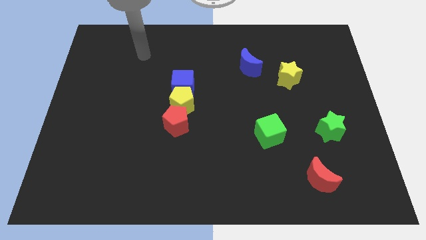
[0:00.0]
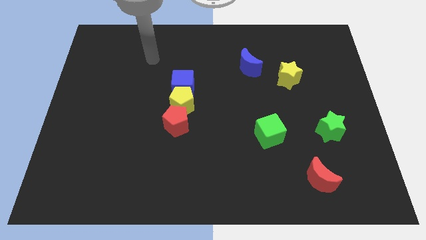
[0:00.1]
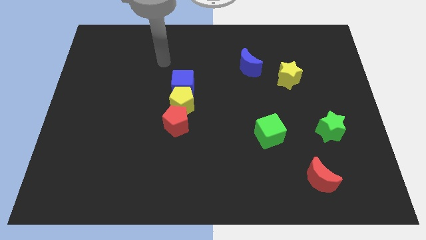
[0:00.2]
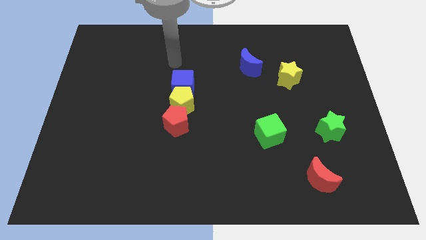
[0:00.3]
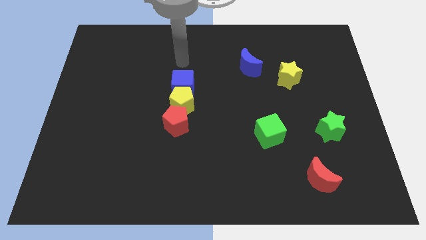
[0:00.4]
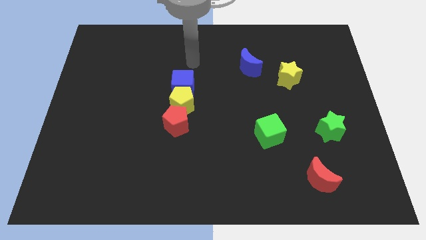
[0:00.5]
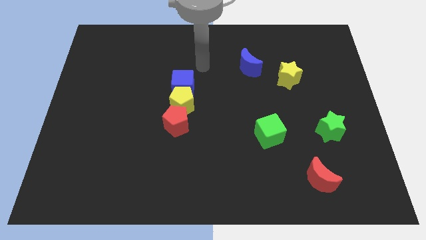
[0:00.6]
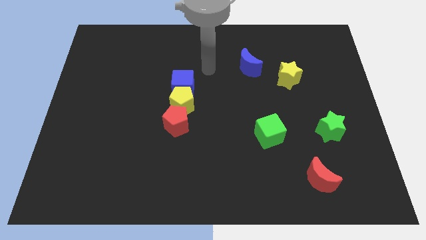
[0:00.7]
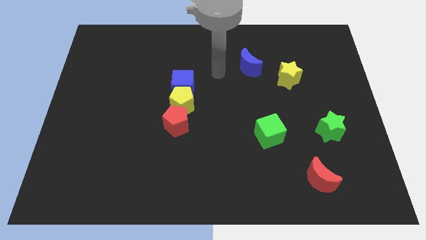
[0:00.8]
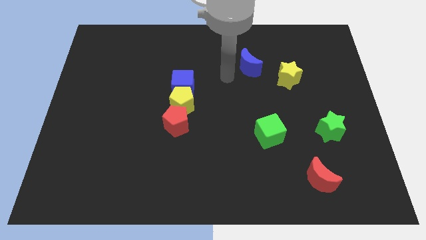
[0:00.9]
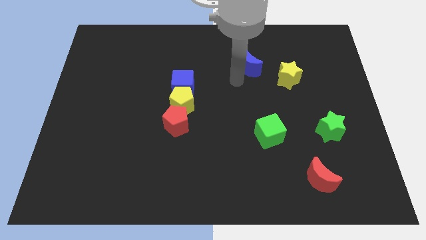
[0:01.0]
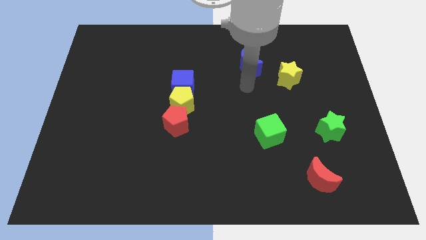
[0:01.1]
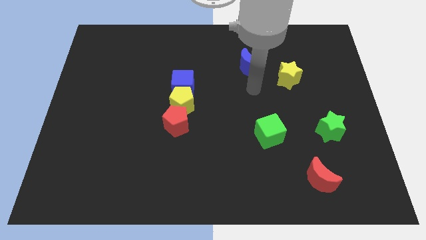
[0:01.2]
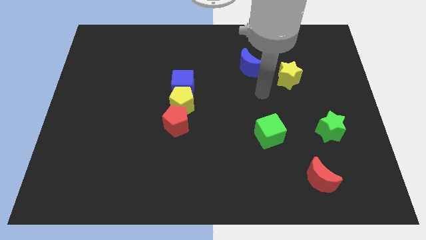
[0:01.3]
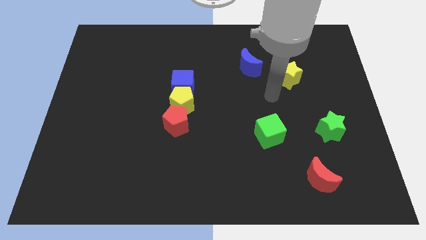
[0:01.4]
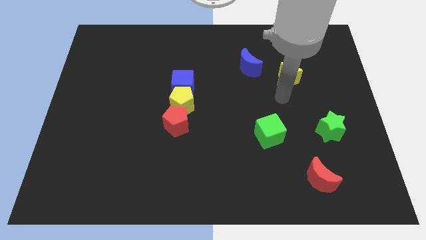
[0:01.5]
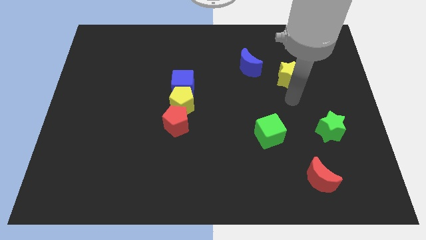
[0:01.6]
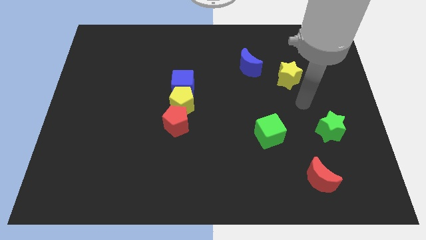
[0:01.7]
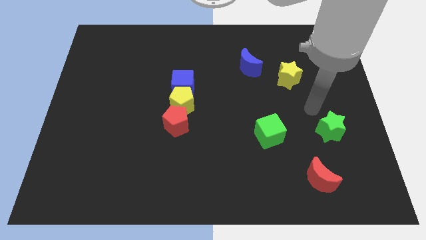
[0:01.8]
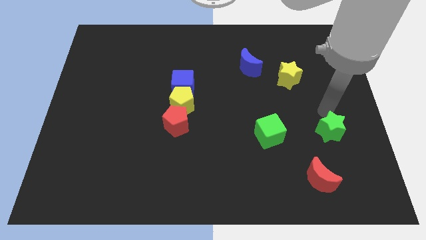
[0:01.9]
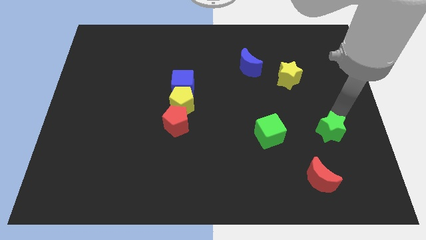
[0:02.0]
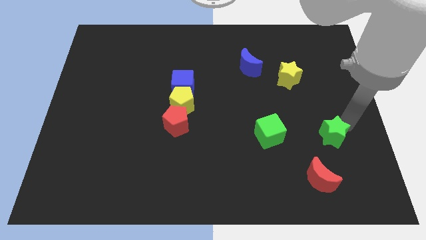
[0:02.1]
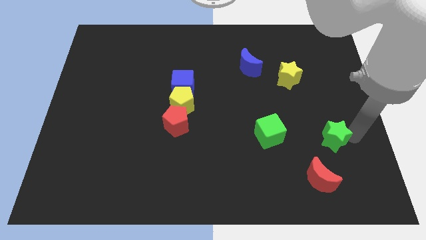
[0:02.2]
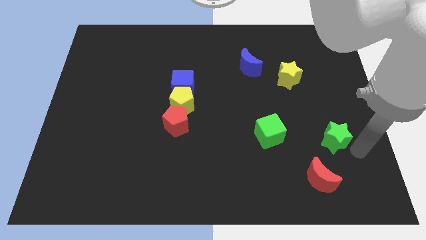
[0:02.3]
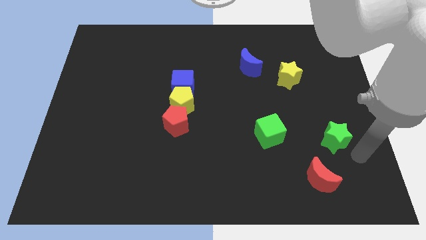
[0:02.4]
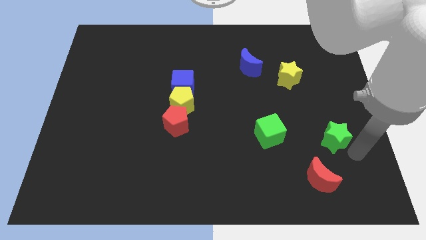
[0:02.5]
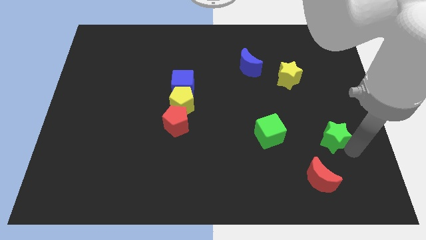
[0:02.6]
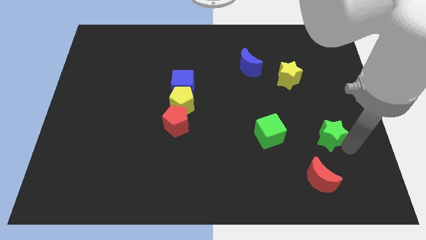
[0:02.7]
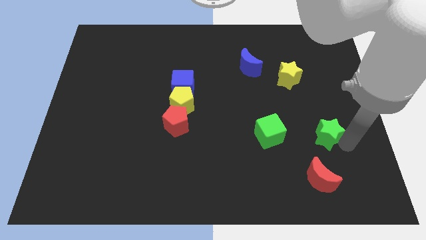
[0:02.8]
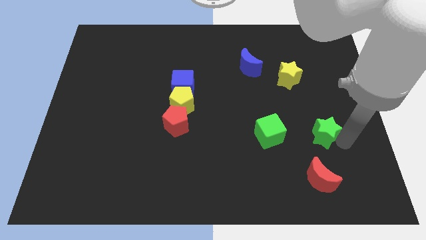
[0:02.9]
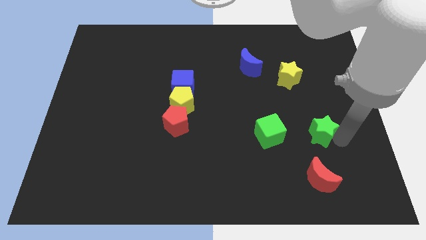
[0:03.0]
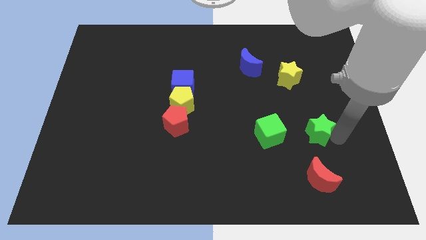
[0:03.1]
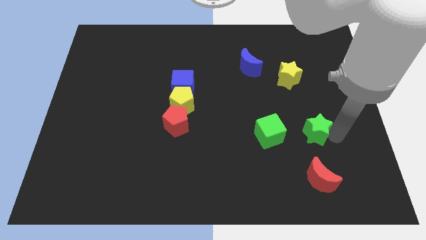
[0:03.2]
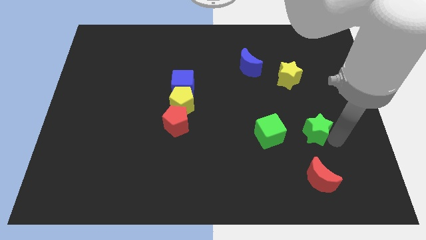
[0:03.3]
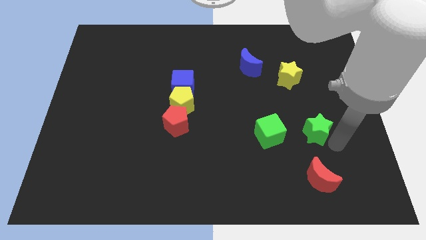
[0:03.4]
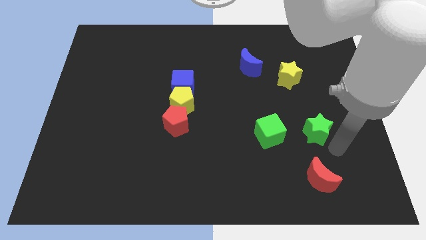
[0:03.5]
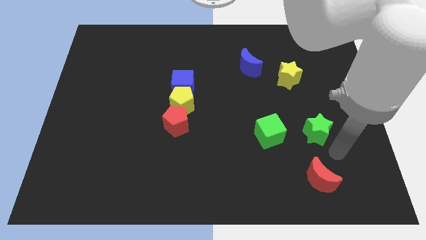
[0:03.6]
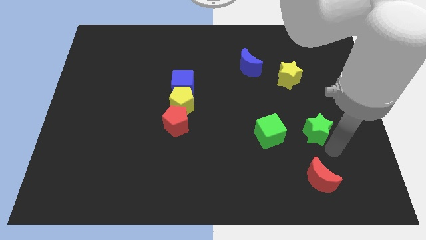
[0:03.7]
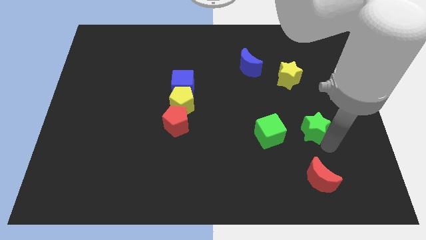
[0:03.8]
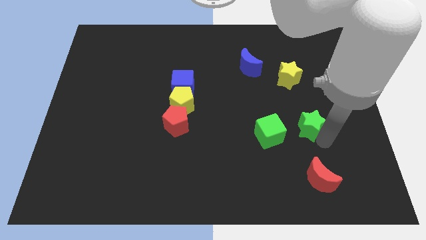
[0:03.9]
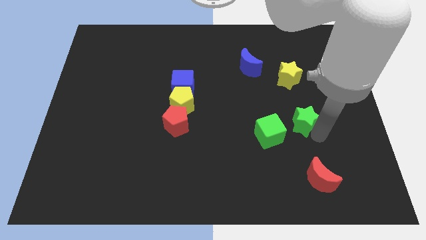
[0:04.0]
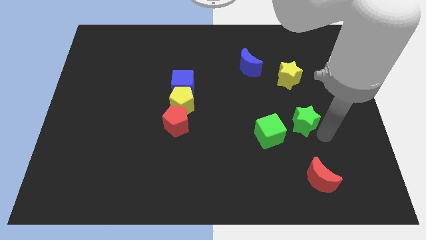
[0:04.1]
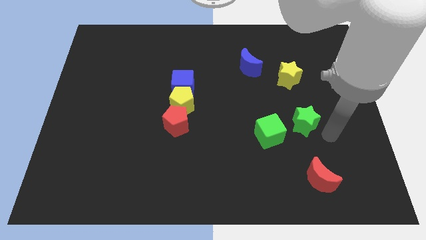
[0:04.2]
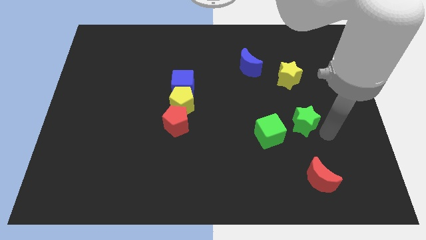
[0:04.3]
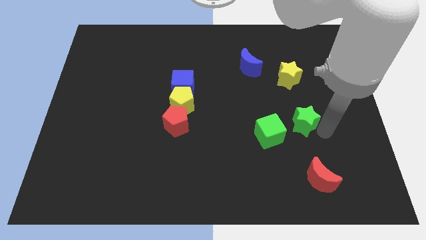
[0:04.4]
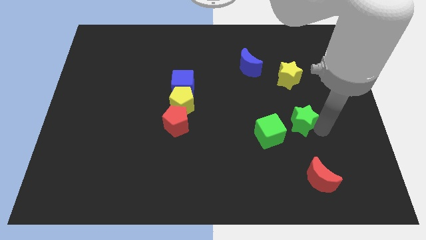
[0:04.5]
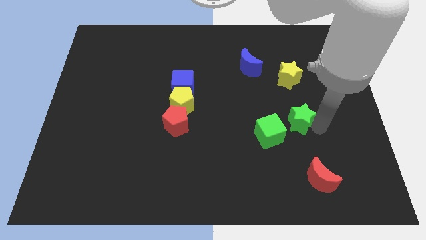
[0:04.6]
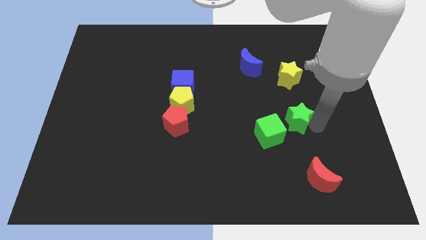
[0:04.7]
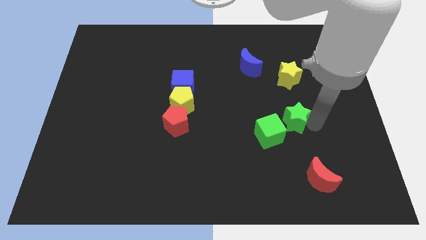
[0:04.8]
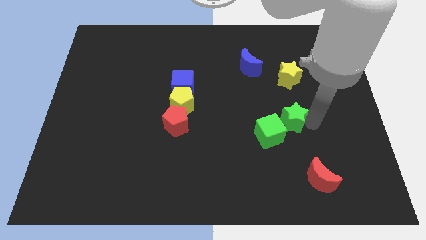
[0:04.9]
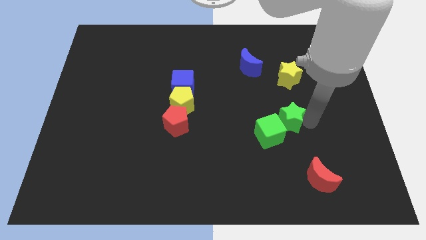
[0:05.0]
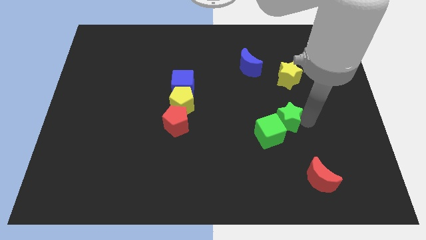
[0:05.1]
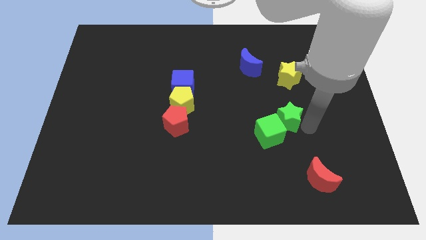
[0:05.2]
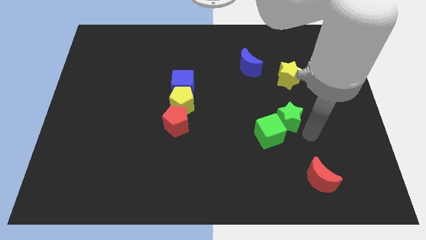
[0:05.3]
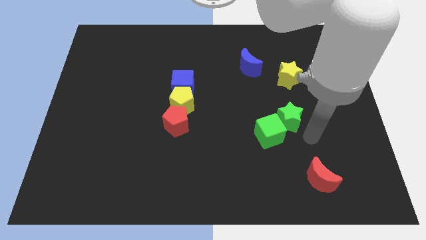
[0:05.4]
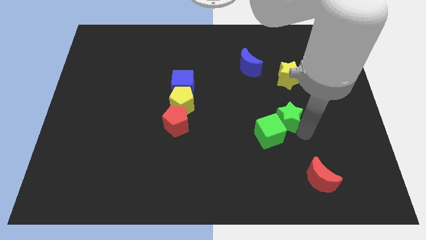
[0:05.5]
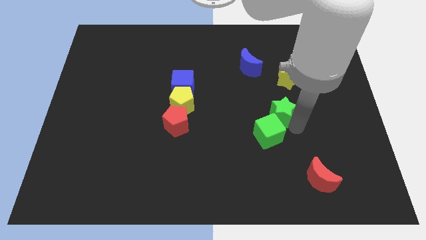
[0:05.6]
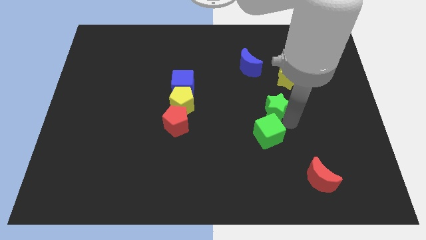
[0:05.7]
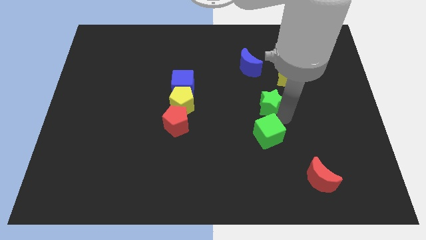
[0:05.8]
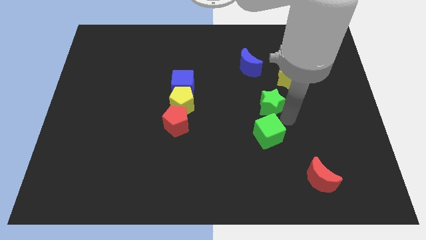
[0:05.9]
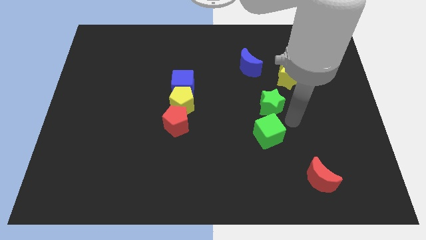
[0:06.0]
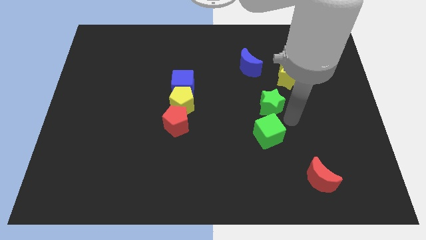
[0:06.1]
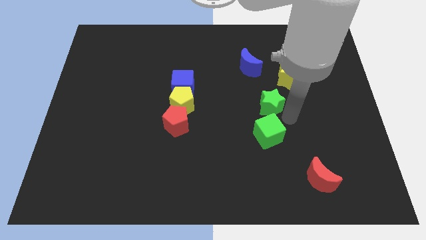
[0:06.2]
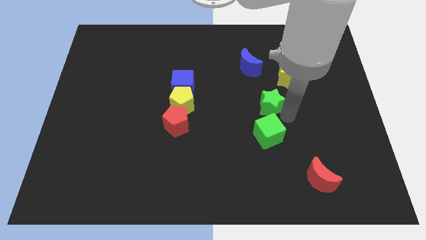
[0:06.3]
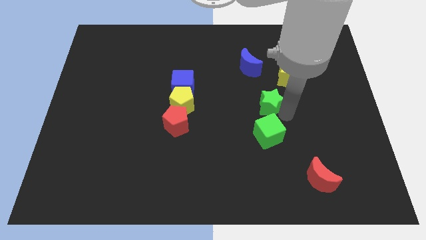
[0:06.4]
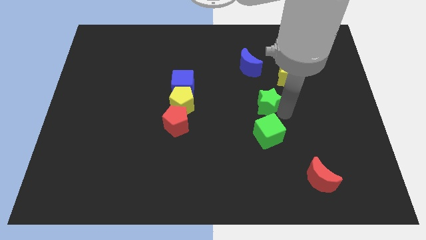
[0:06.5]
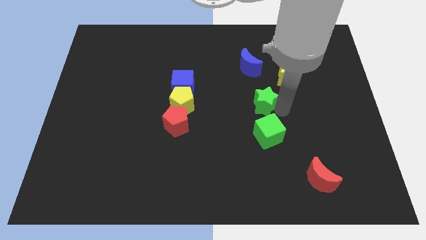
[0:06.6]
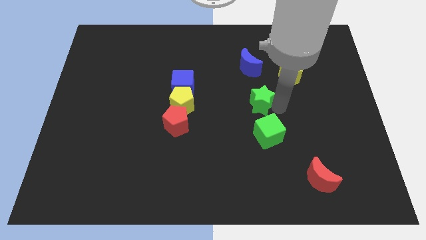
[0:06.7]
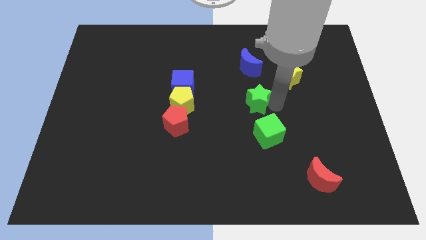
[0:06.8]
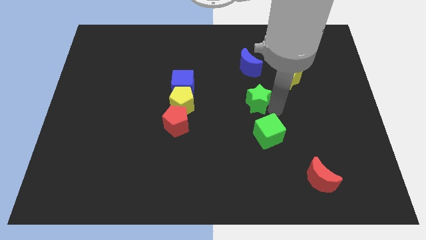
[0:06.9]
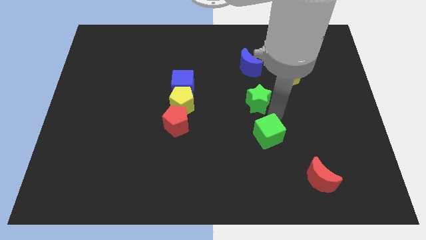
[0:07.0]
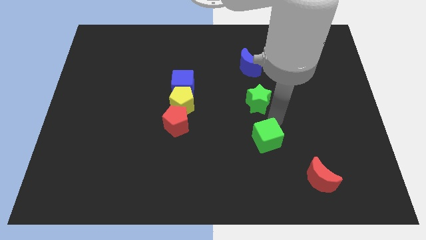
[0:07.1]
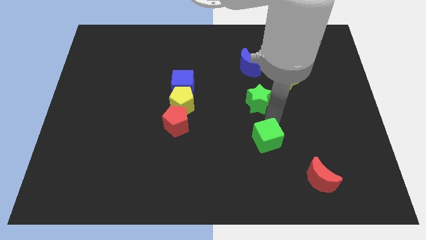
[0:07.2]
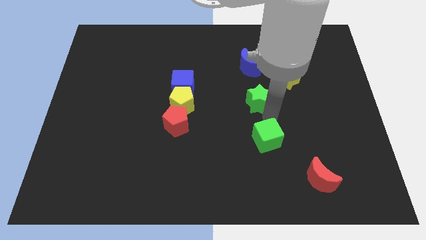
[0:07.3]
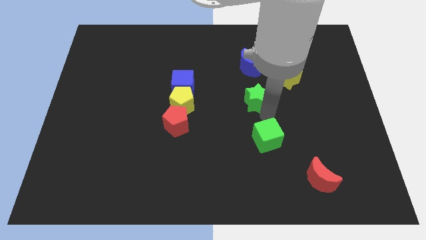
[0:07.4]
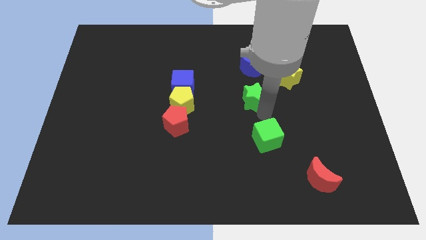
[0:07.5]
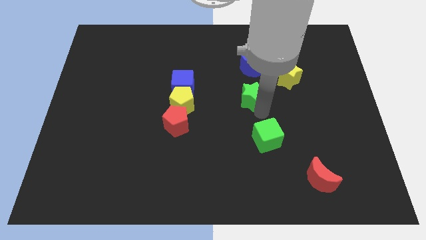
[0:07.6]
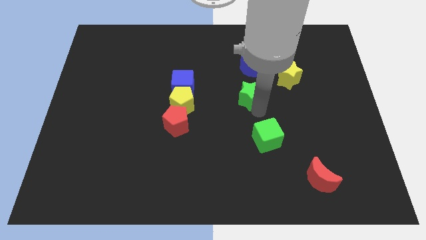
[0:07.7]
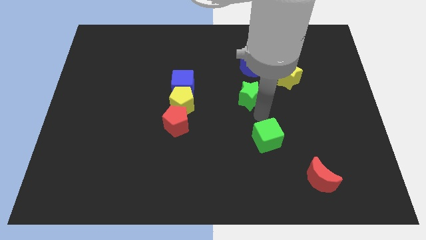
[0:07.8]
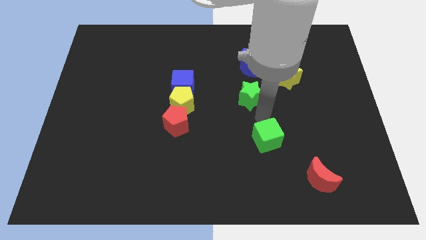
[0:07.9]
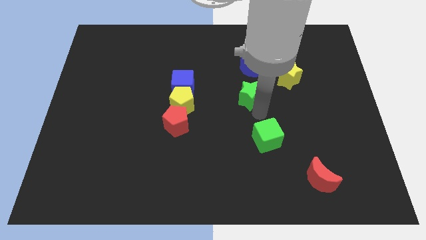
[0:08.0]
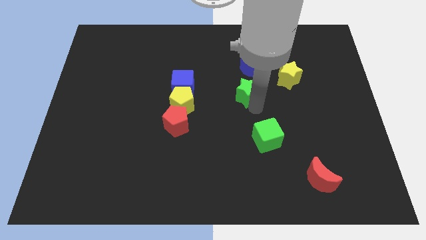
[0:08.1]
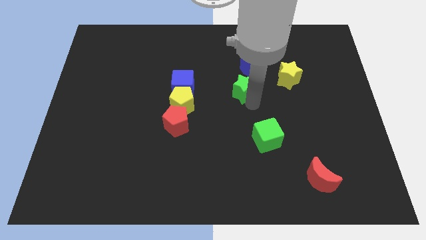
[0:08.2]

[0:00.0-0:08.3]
push the green star upwards and to the left
